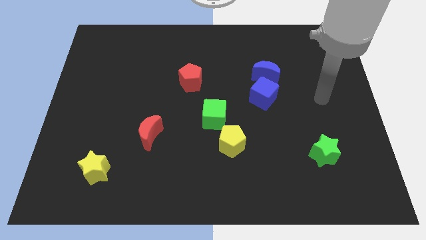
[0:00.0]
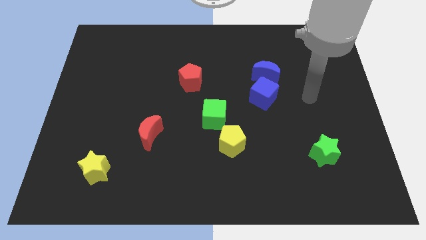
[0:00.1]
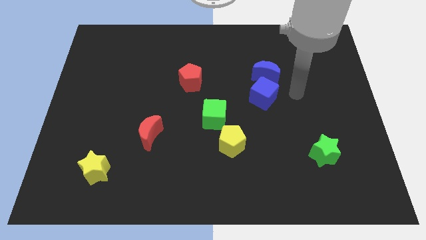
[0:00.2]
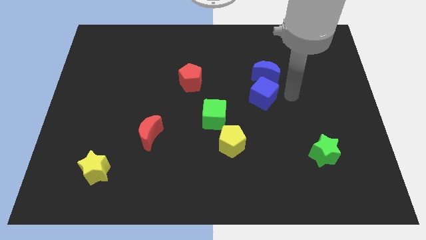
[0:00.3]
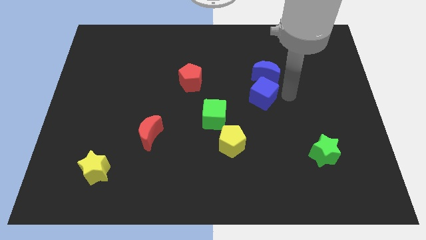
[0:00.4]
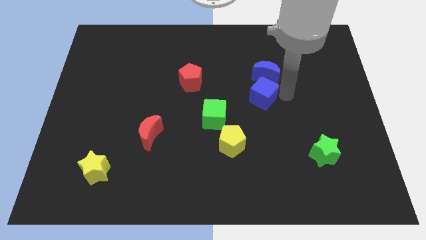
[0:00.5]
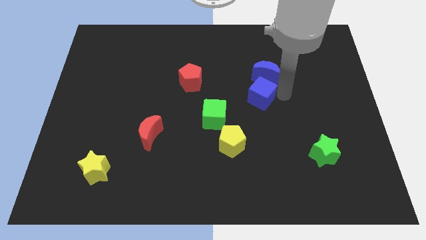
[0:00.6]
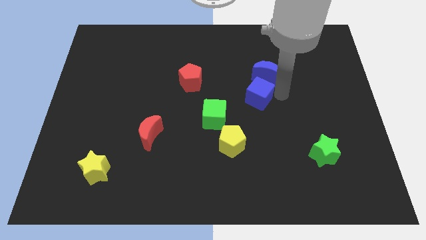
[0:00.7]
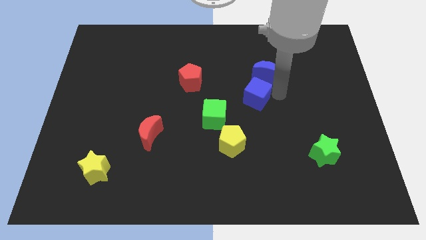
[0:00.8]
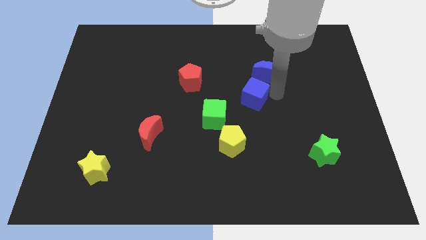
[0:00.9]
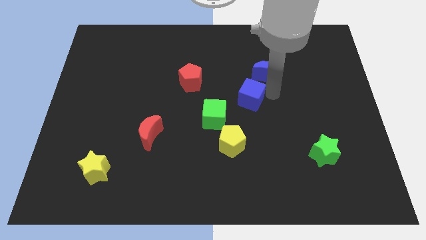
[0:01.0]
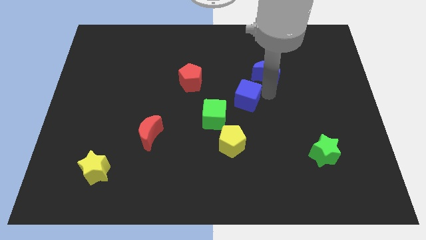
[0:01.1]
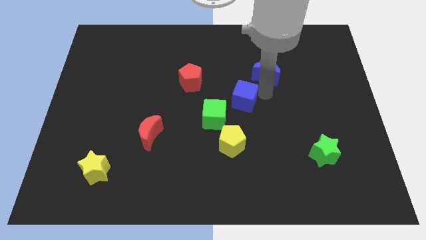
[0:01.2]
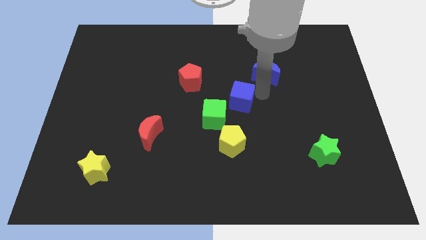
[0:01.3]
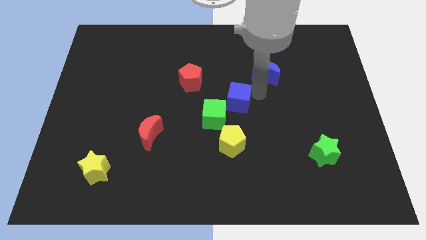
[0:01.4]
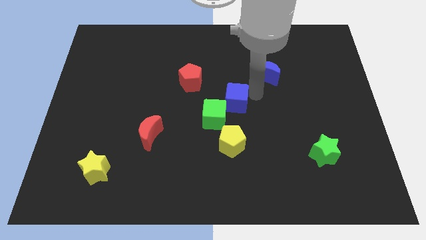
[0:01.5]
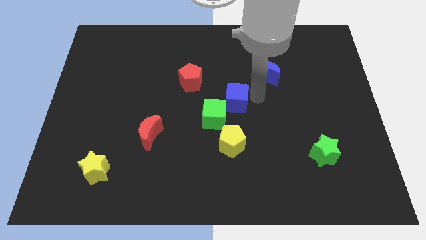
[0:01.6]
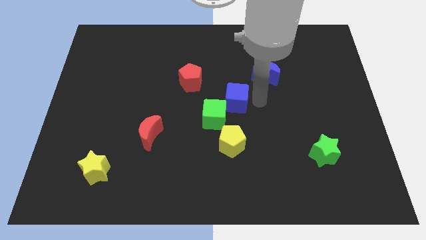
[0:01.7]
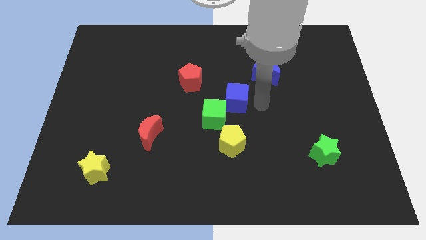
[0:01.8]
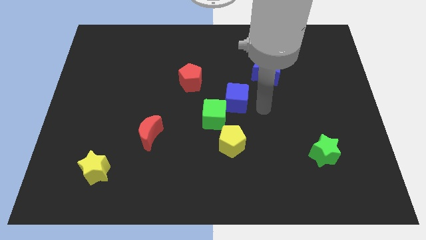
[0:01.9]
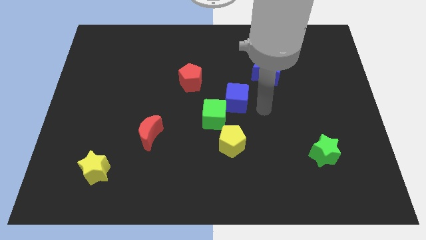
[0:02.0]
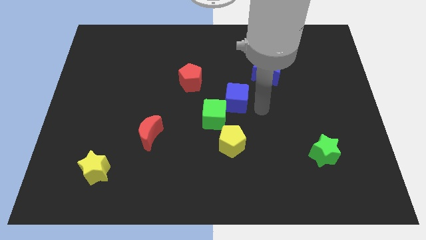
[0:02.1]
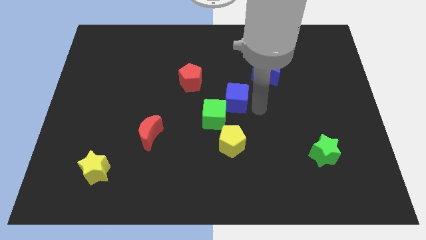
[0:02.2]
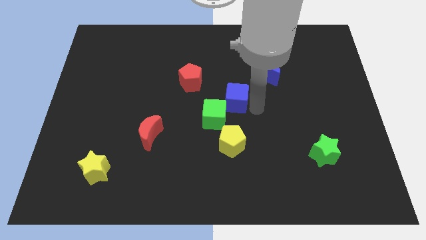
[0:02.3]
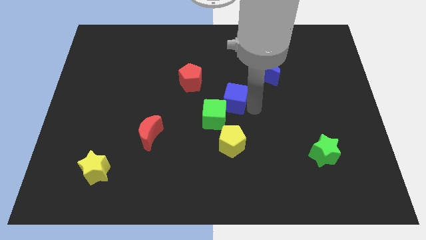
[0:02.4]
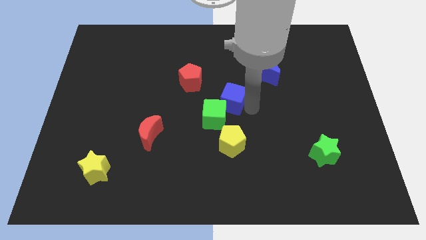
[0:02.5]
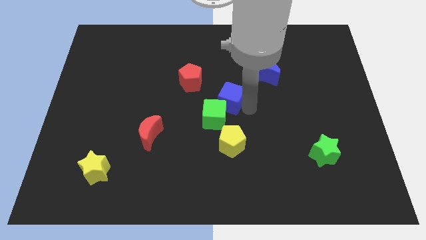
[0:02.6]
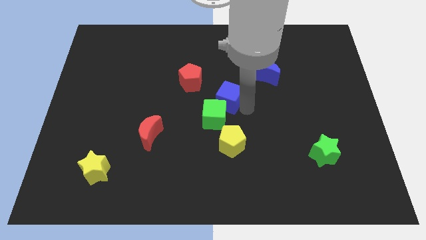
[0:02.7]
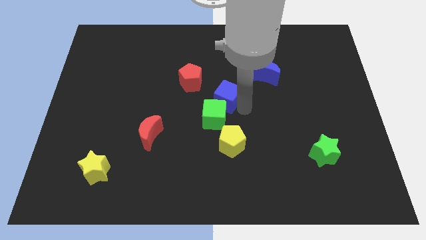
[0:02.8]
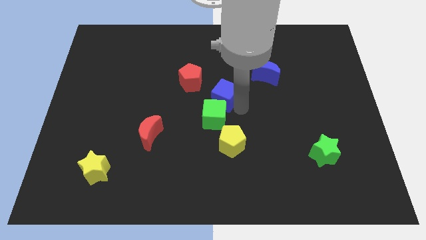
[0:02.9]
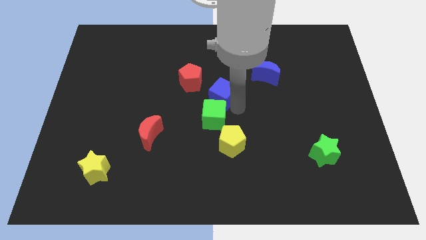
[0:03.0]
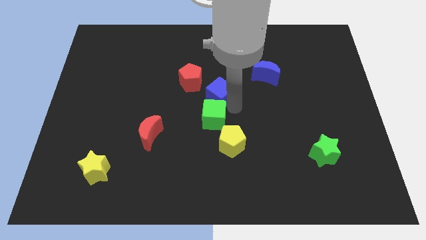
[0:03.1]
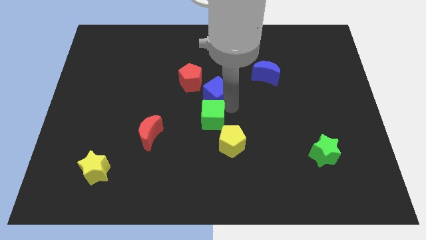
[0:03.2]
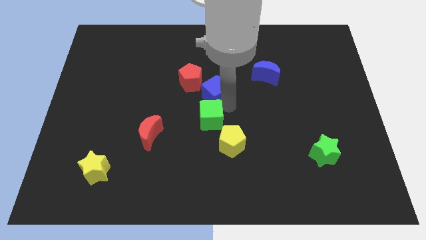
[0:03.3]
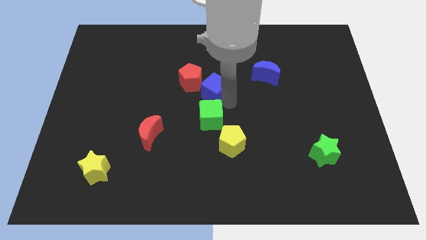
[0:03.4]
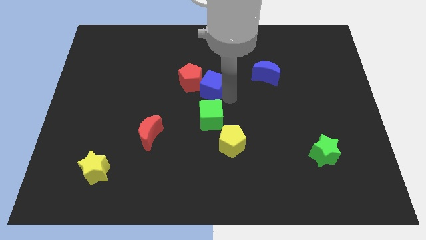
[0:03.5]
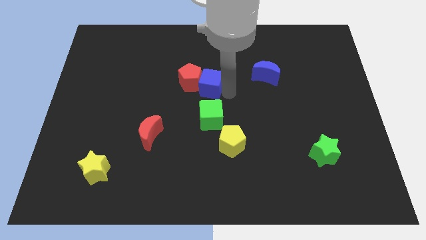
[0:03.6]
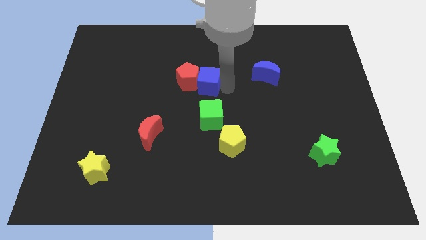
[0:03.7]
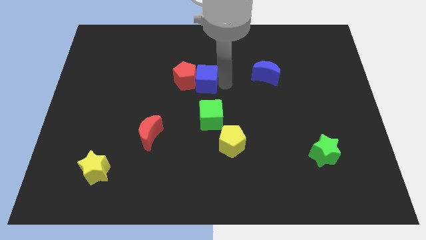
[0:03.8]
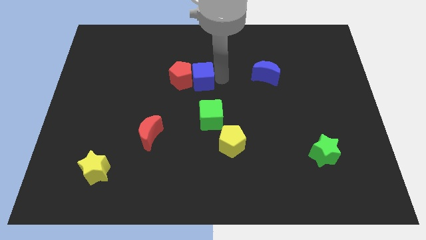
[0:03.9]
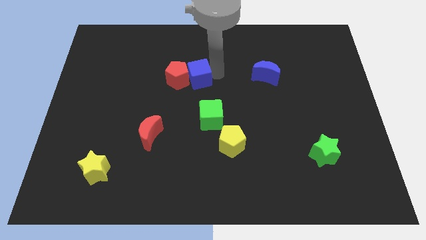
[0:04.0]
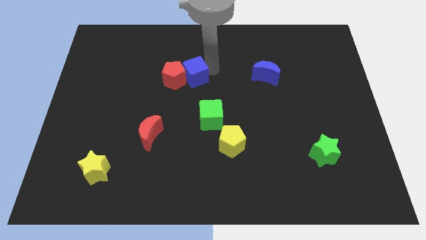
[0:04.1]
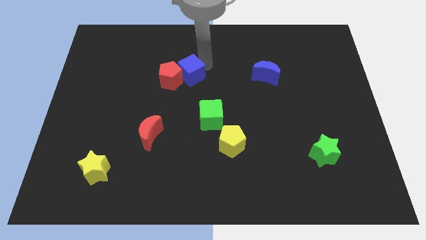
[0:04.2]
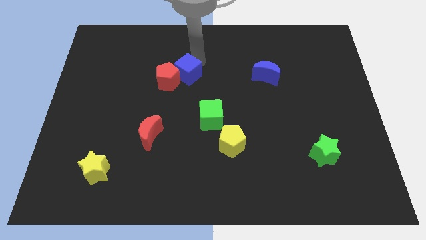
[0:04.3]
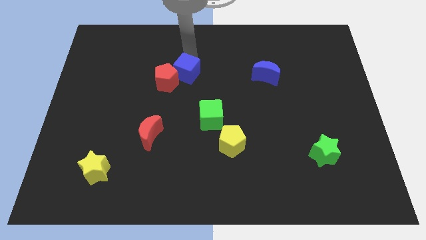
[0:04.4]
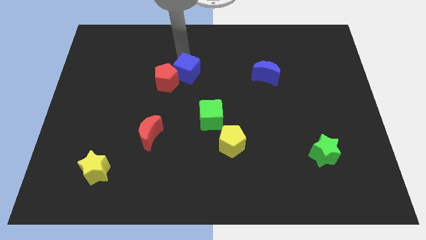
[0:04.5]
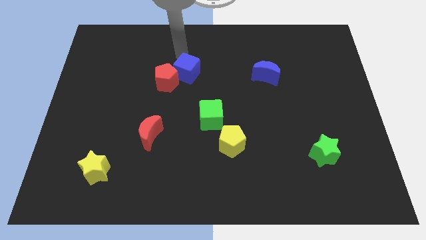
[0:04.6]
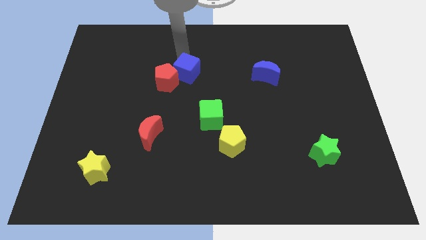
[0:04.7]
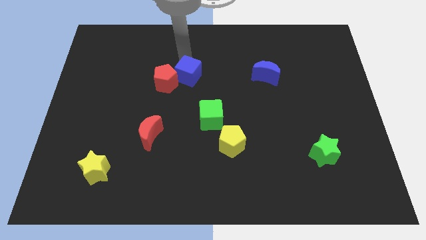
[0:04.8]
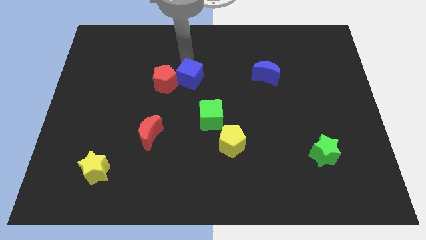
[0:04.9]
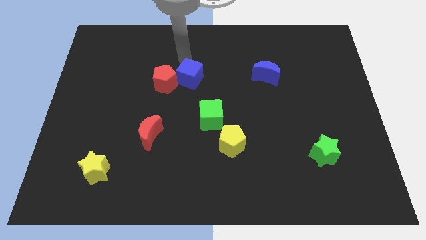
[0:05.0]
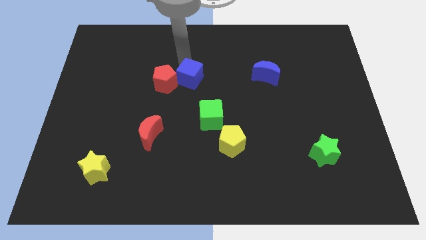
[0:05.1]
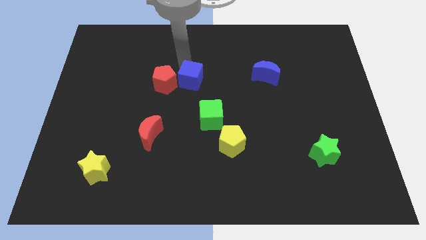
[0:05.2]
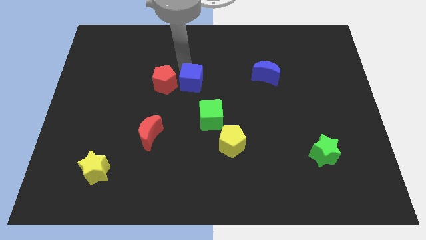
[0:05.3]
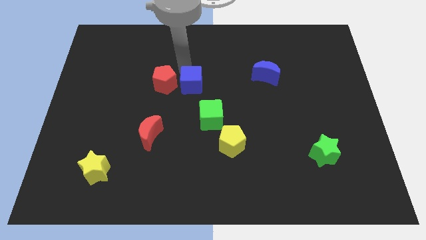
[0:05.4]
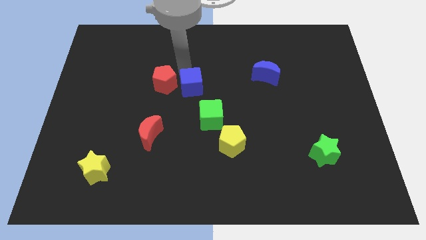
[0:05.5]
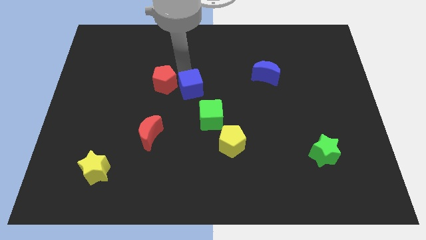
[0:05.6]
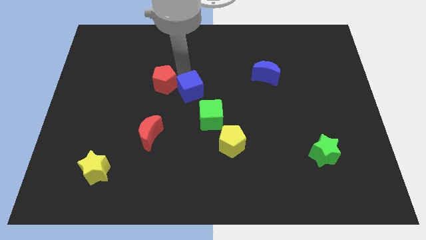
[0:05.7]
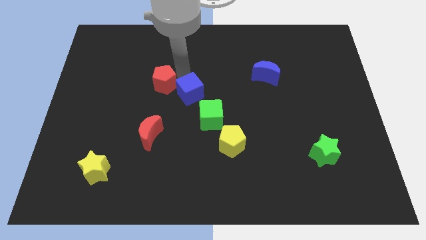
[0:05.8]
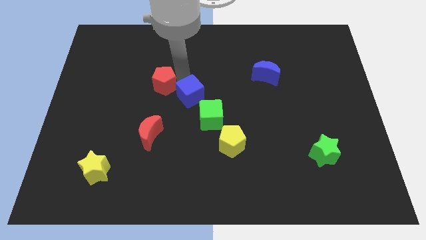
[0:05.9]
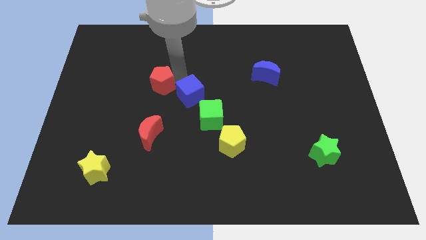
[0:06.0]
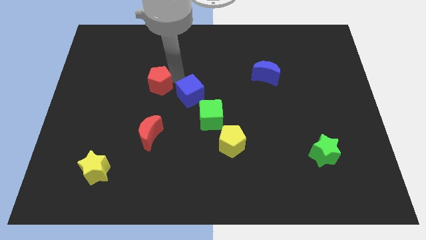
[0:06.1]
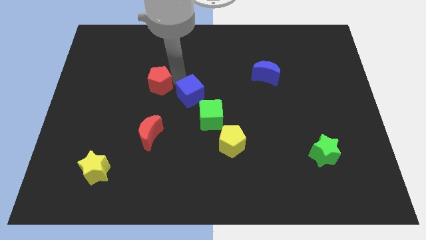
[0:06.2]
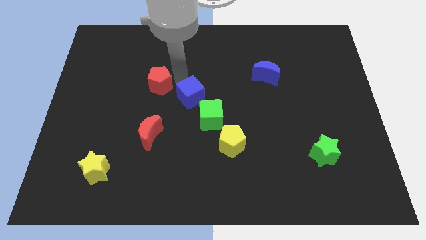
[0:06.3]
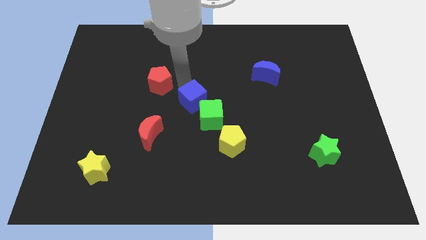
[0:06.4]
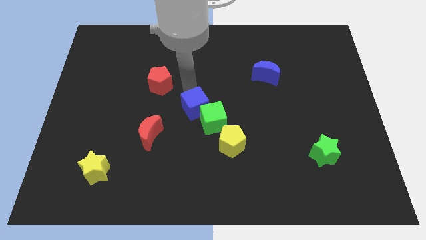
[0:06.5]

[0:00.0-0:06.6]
push the blue cube downwards and then left a bit

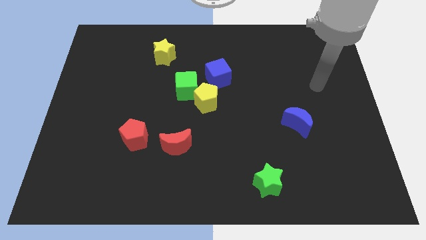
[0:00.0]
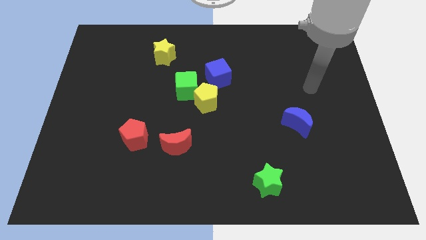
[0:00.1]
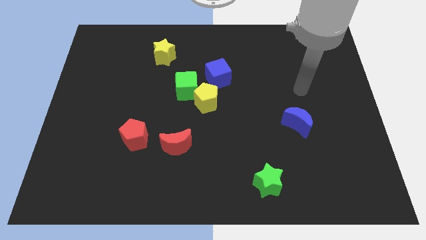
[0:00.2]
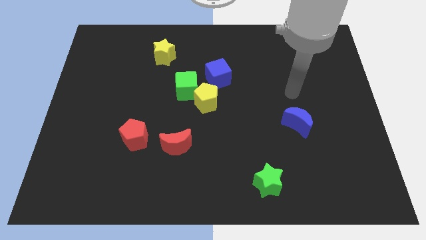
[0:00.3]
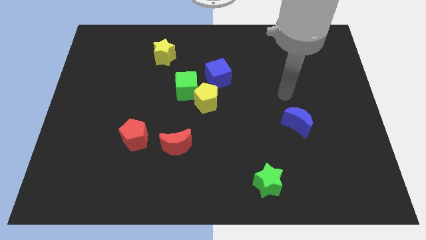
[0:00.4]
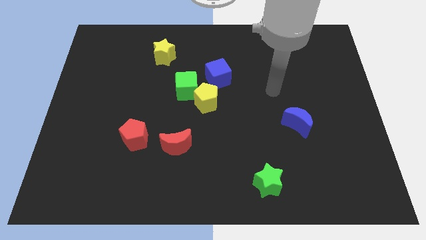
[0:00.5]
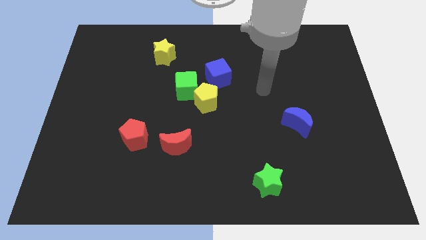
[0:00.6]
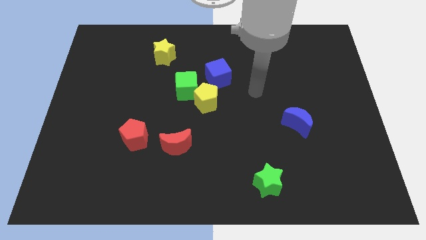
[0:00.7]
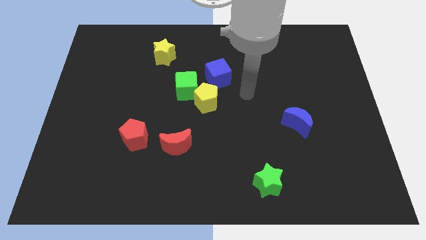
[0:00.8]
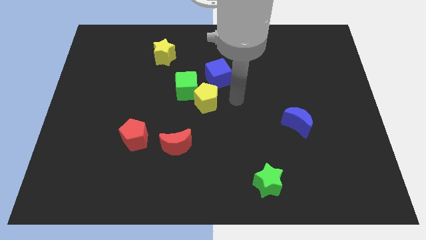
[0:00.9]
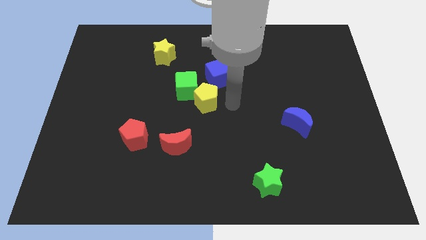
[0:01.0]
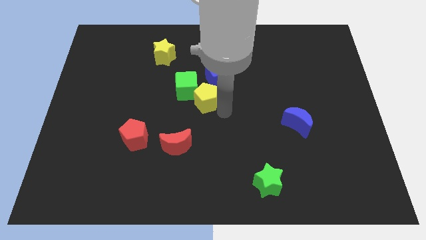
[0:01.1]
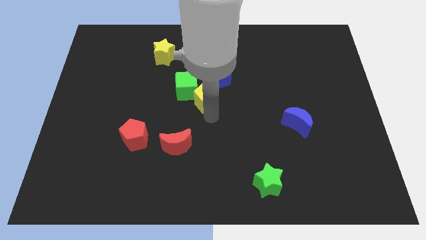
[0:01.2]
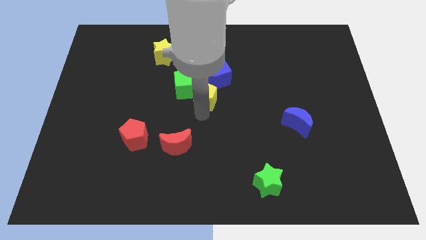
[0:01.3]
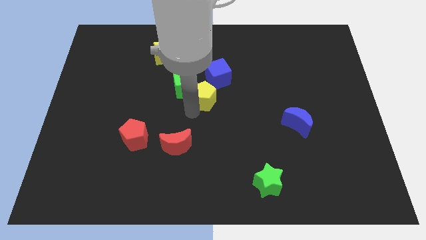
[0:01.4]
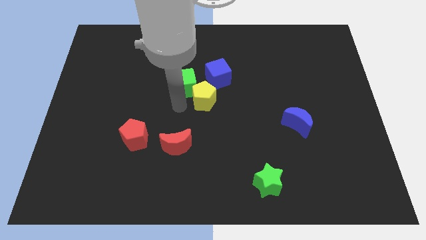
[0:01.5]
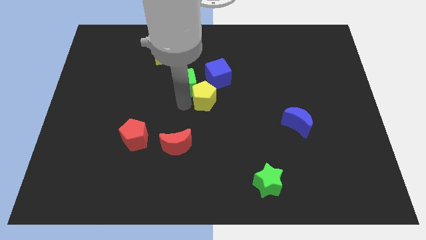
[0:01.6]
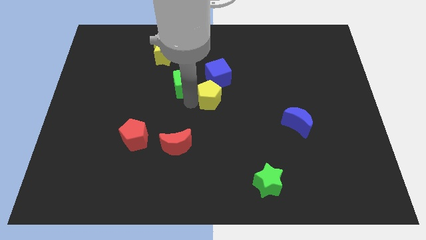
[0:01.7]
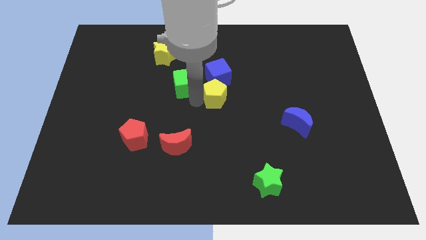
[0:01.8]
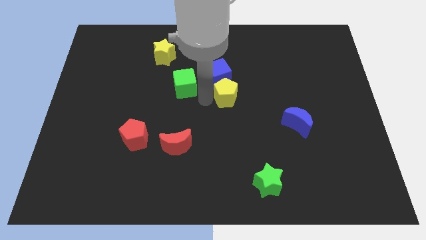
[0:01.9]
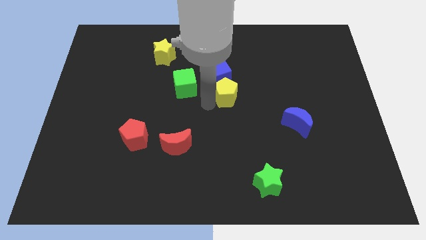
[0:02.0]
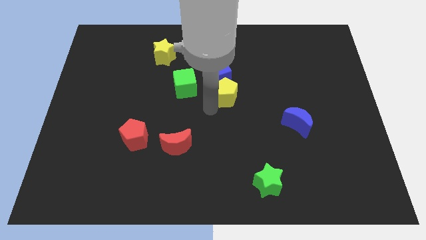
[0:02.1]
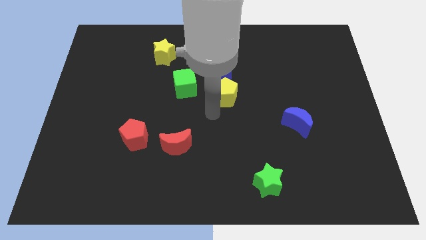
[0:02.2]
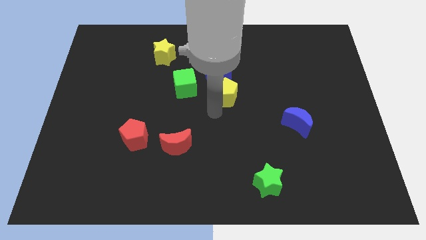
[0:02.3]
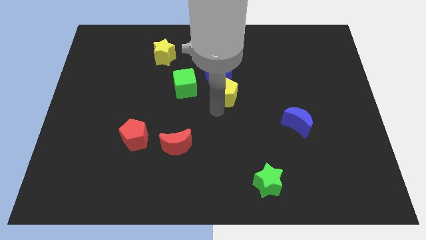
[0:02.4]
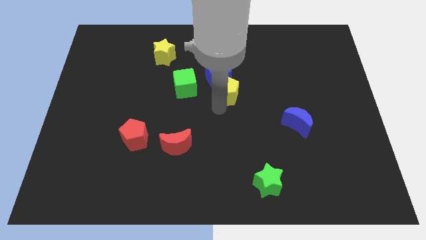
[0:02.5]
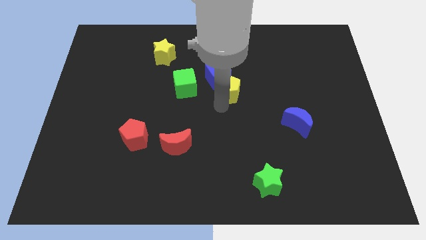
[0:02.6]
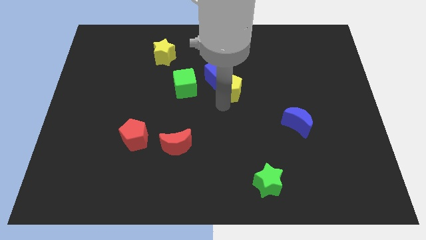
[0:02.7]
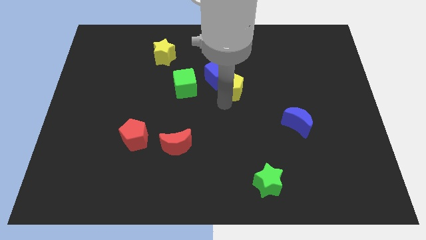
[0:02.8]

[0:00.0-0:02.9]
slide the yellow pentagon up and to the right somewhat
